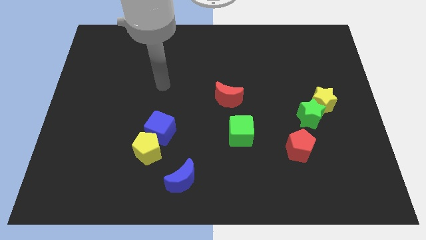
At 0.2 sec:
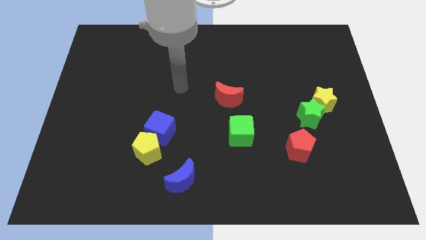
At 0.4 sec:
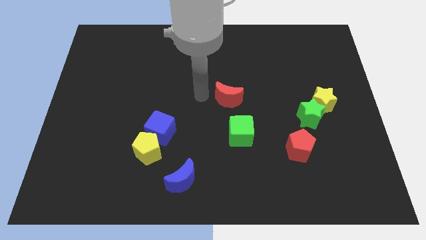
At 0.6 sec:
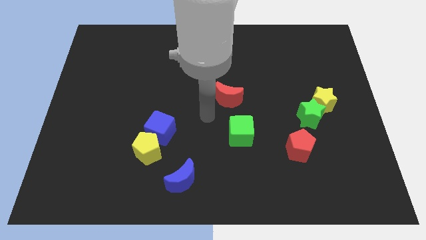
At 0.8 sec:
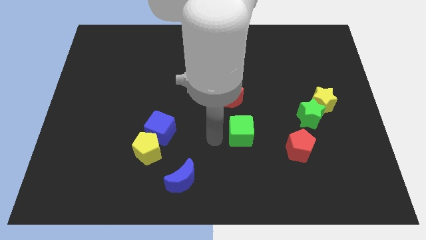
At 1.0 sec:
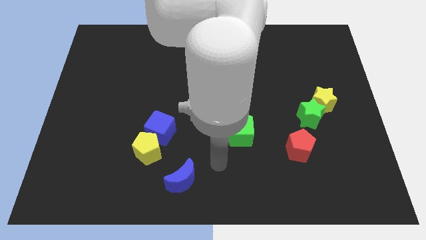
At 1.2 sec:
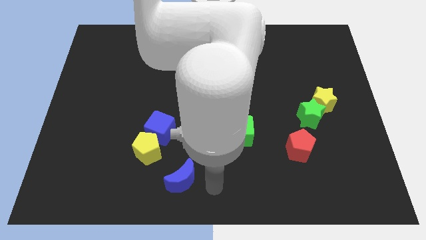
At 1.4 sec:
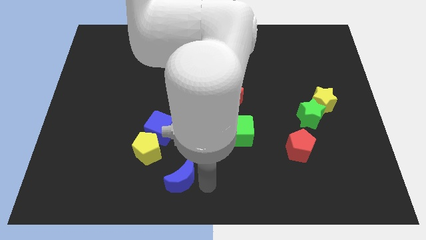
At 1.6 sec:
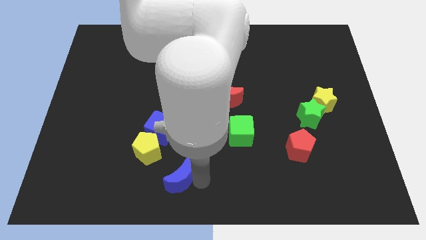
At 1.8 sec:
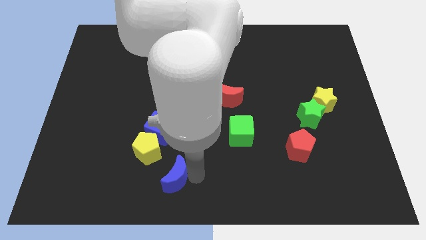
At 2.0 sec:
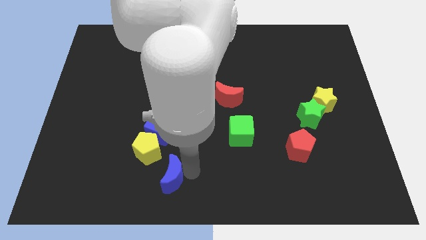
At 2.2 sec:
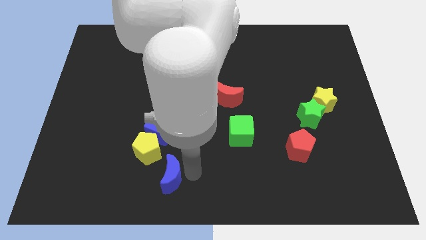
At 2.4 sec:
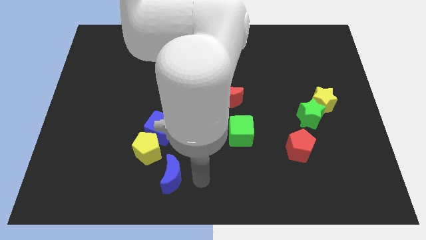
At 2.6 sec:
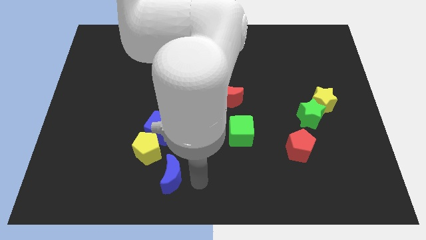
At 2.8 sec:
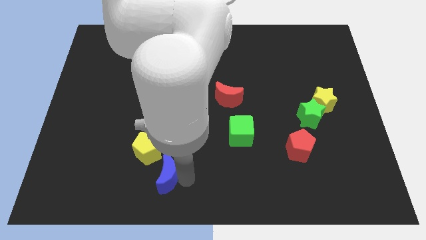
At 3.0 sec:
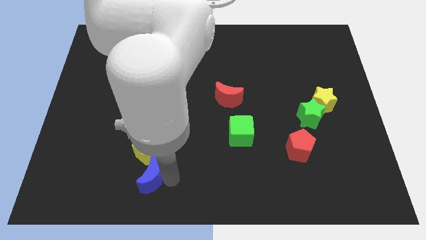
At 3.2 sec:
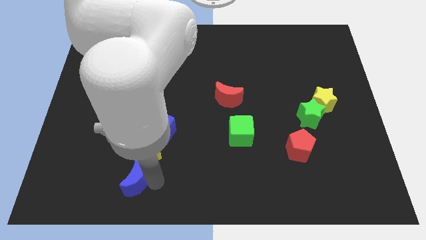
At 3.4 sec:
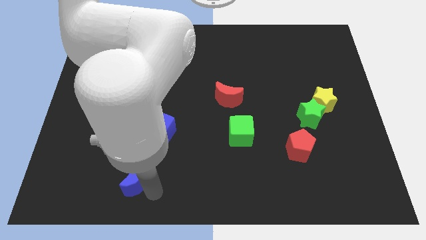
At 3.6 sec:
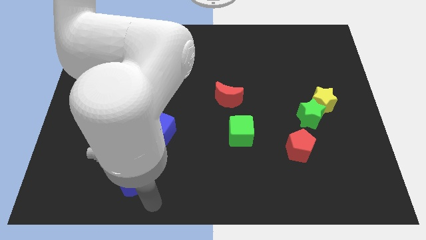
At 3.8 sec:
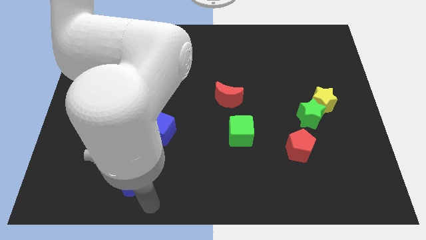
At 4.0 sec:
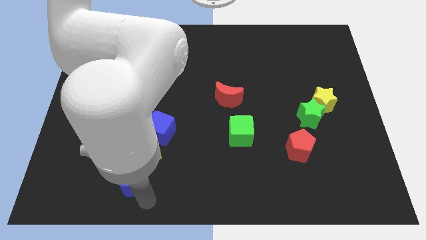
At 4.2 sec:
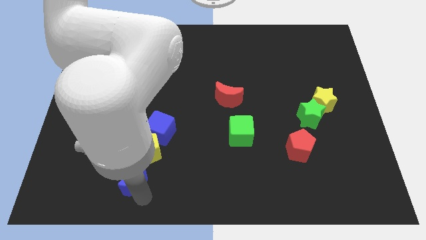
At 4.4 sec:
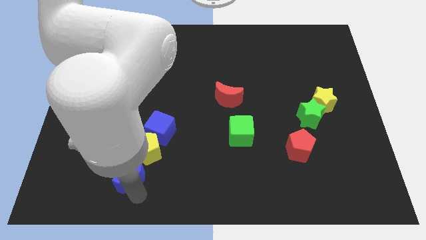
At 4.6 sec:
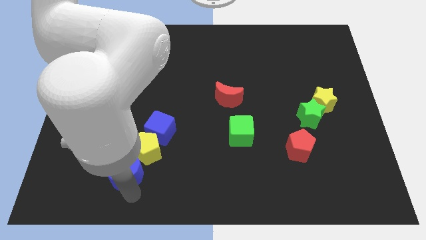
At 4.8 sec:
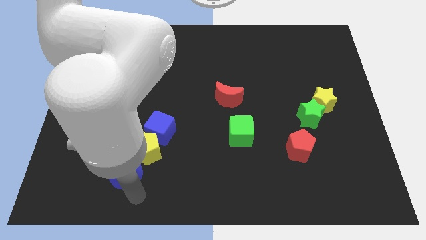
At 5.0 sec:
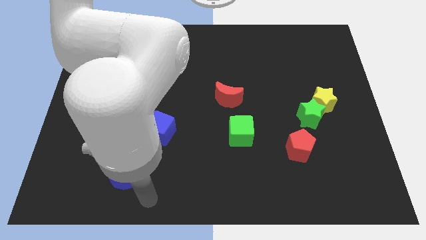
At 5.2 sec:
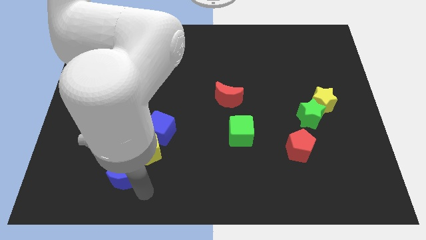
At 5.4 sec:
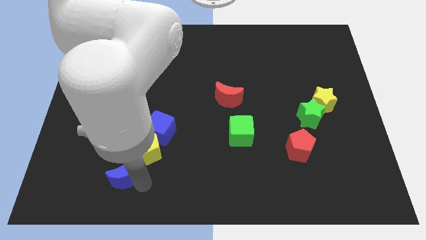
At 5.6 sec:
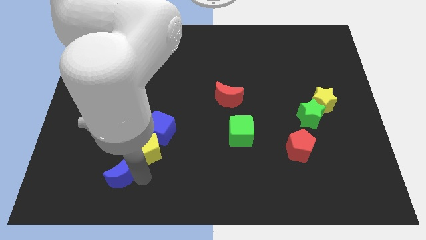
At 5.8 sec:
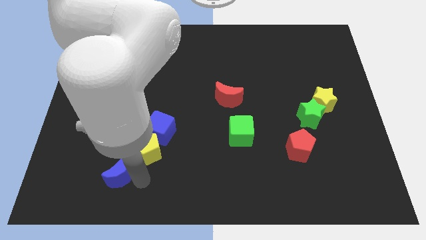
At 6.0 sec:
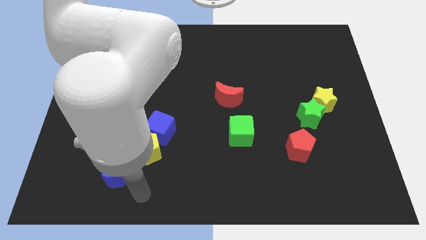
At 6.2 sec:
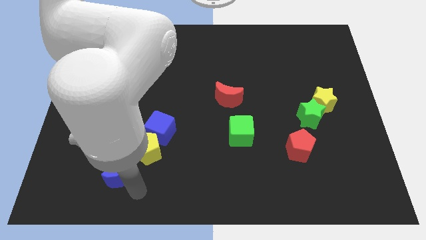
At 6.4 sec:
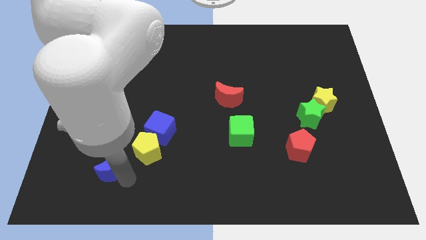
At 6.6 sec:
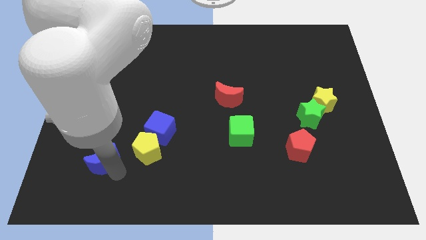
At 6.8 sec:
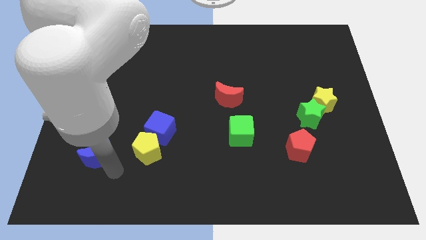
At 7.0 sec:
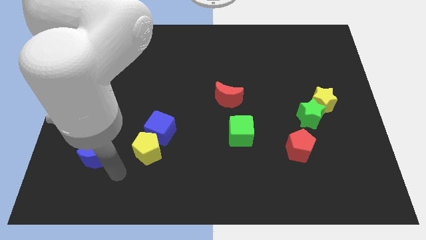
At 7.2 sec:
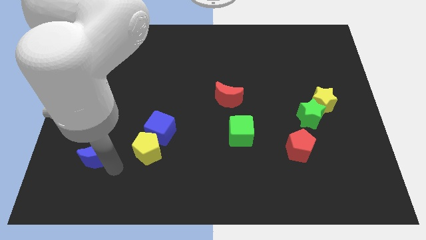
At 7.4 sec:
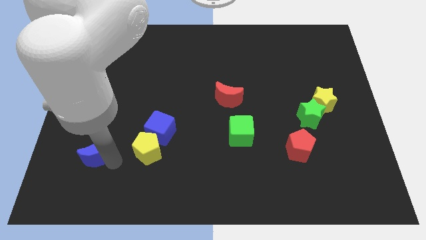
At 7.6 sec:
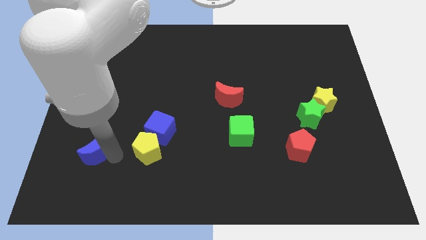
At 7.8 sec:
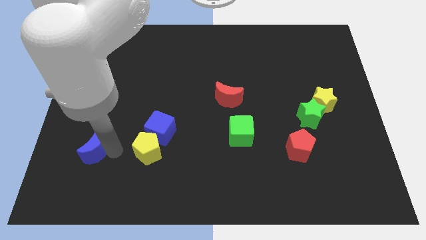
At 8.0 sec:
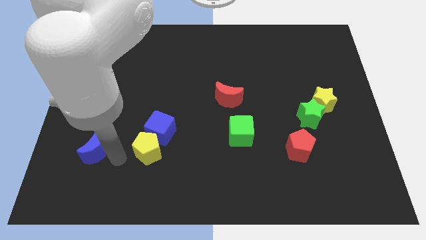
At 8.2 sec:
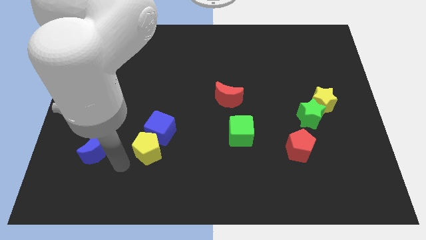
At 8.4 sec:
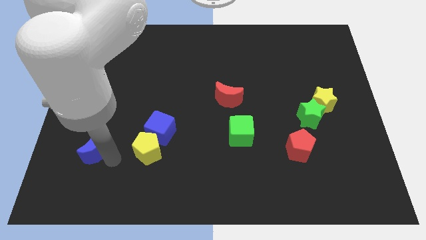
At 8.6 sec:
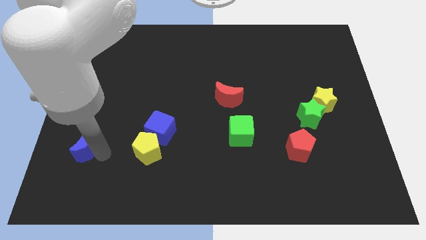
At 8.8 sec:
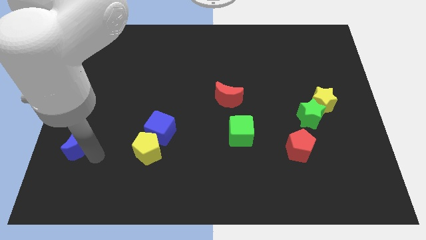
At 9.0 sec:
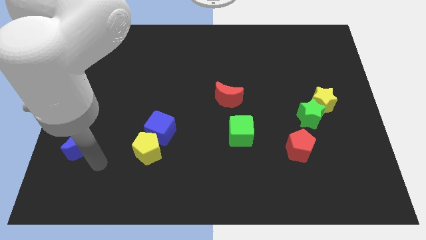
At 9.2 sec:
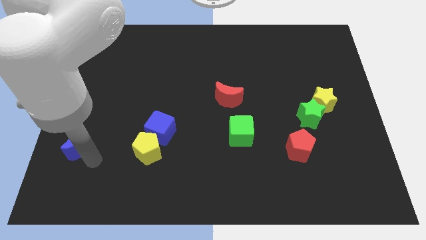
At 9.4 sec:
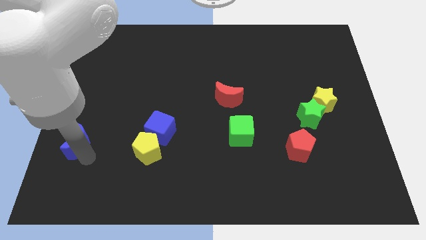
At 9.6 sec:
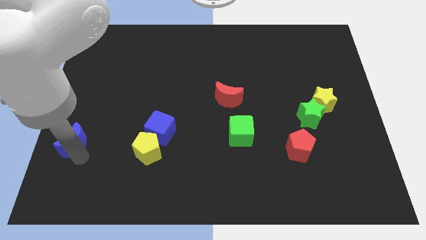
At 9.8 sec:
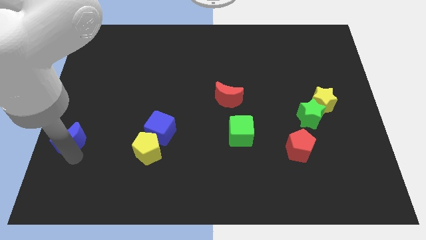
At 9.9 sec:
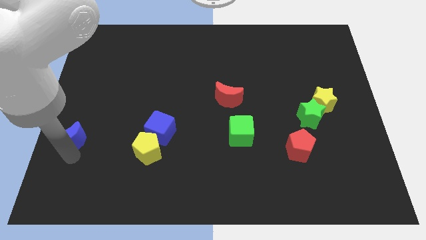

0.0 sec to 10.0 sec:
push the blue moon to the left side of the board
